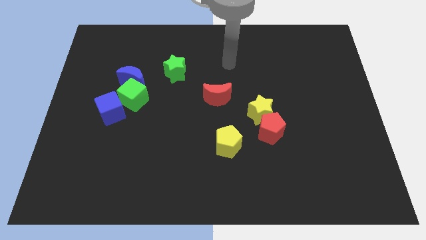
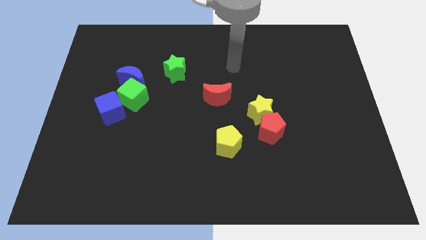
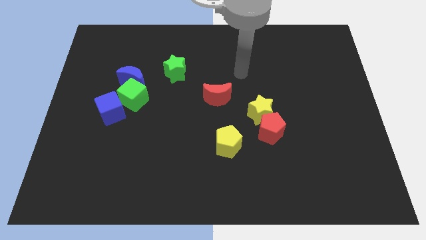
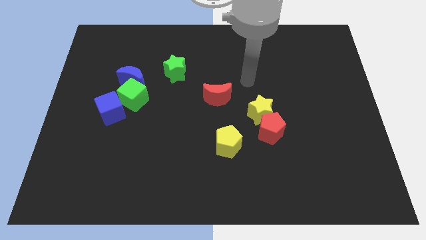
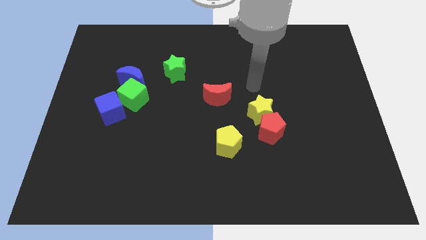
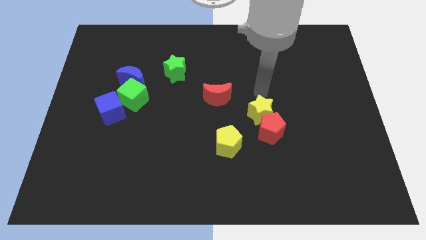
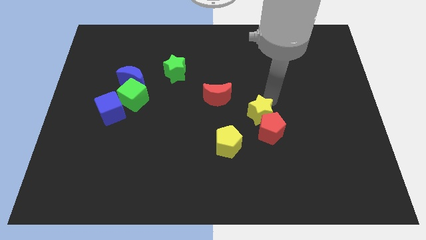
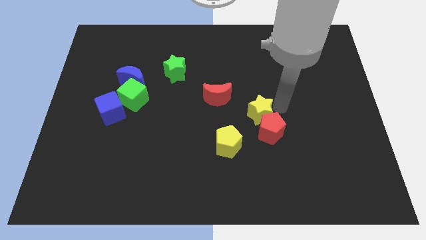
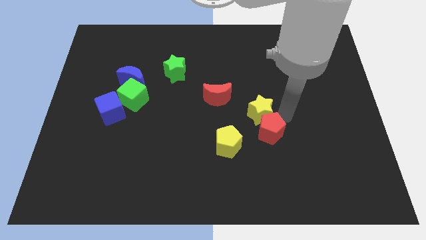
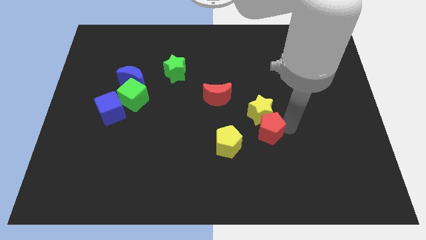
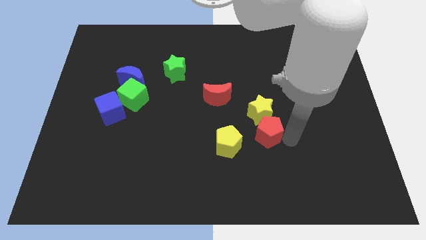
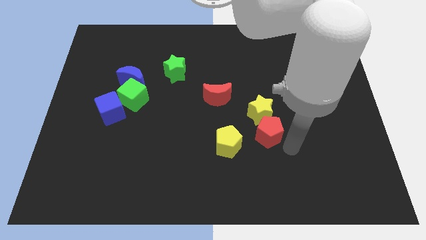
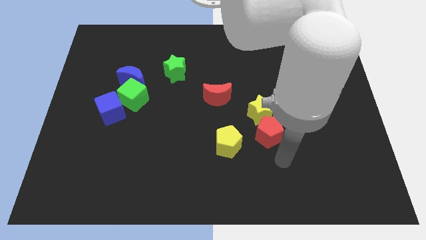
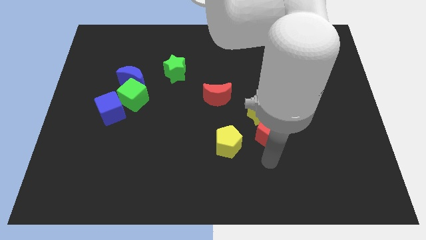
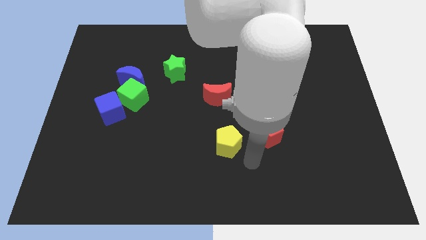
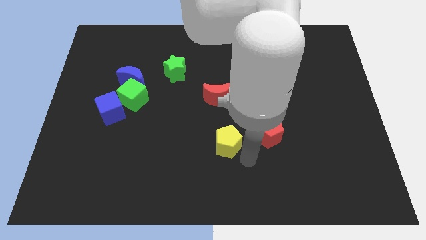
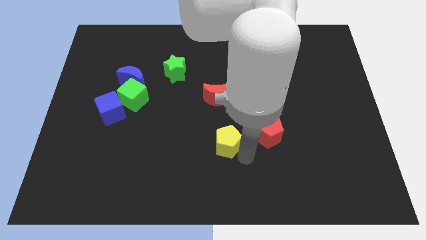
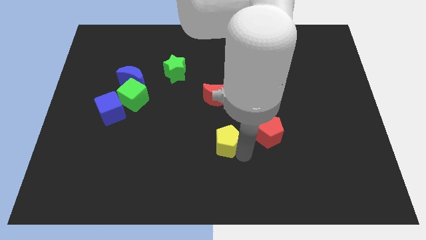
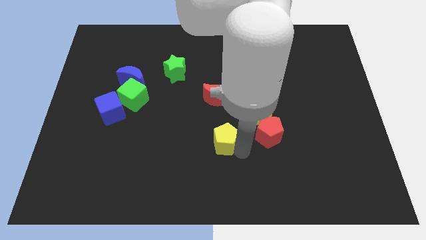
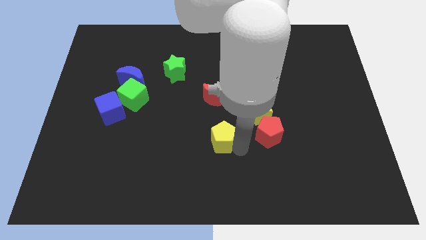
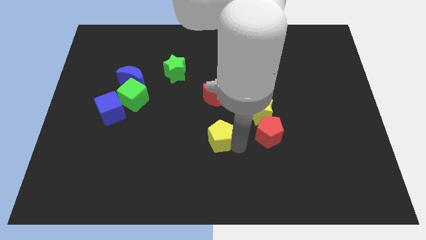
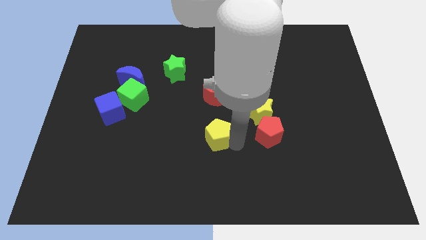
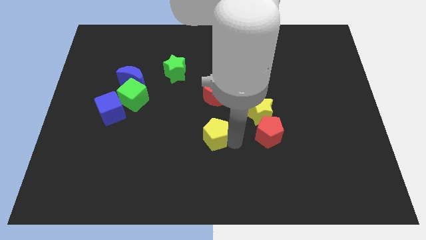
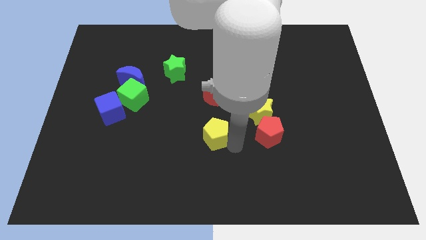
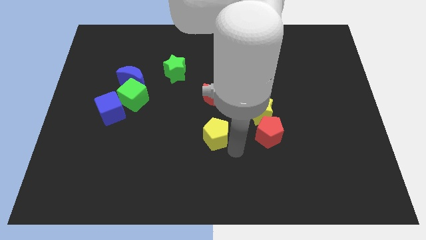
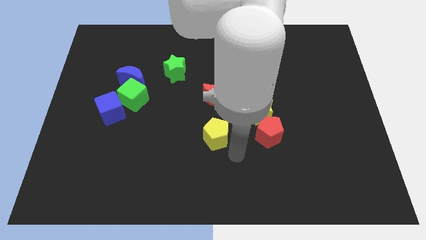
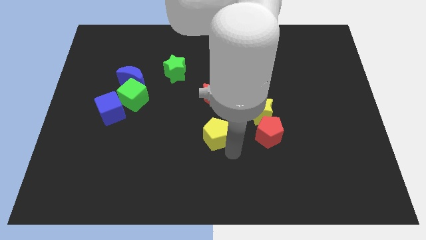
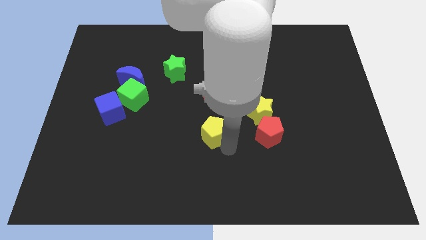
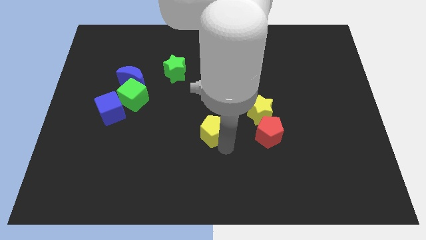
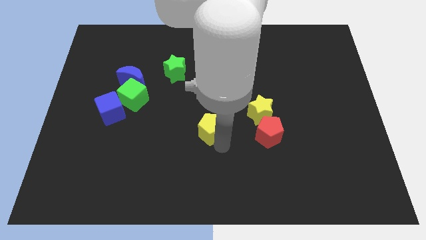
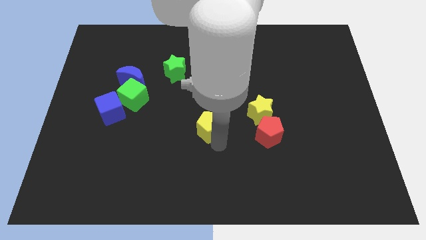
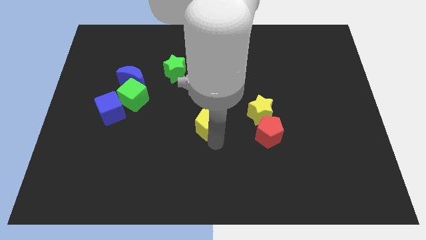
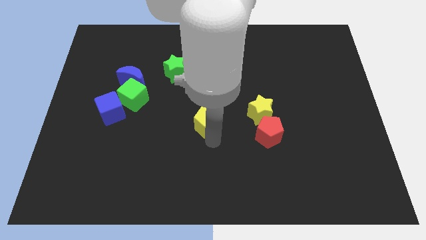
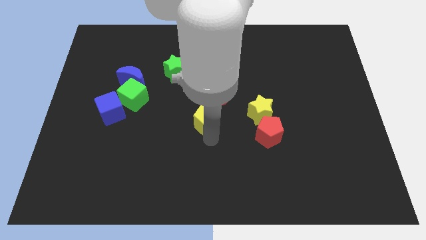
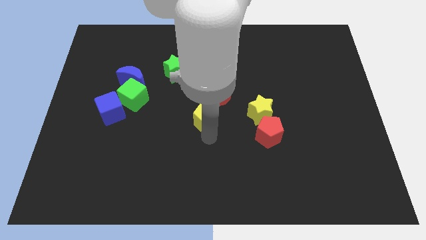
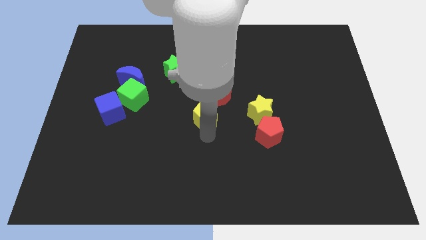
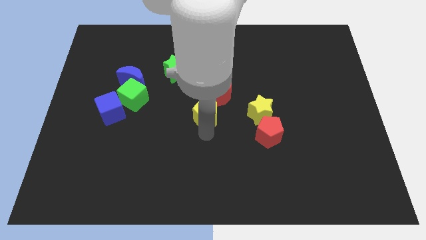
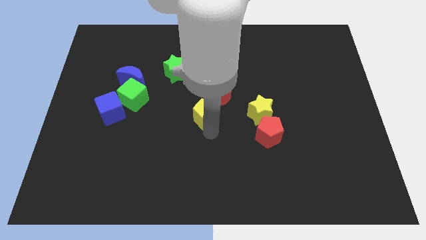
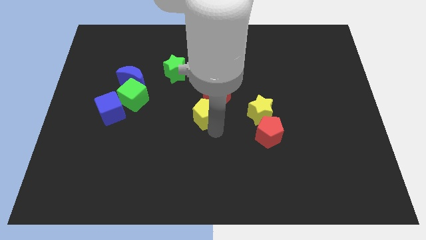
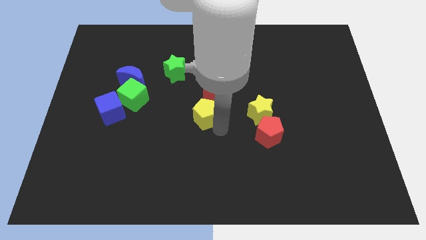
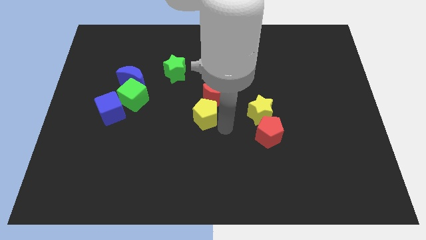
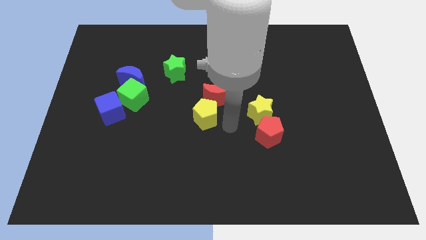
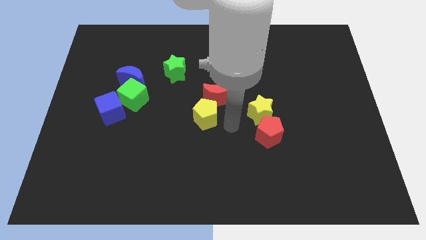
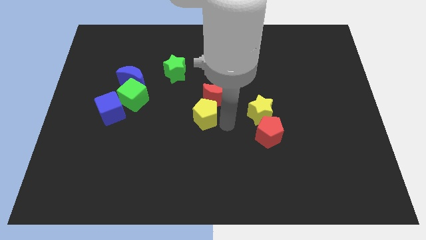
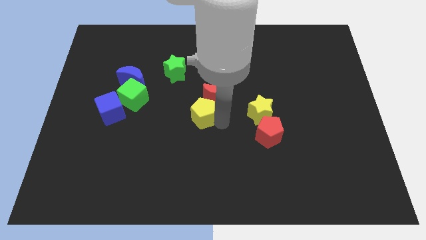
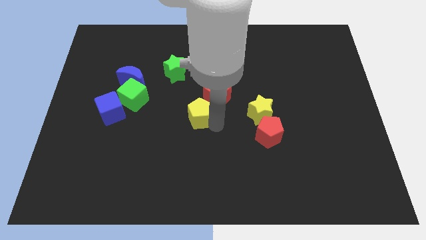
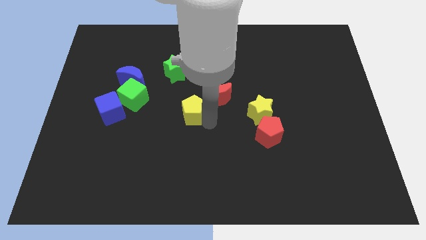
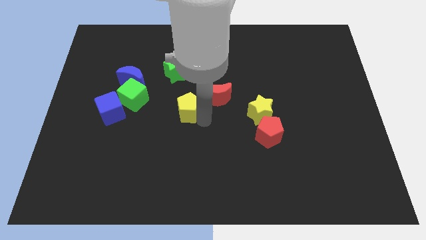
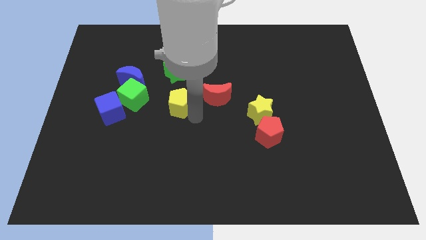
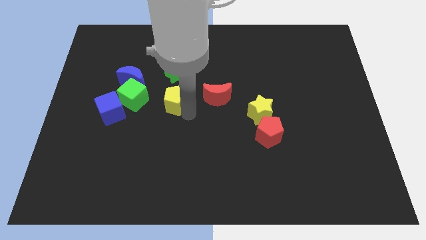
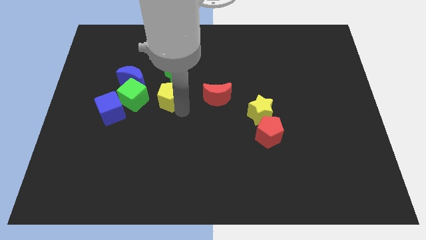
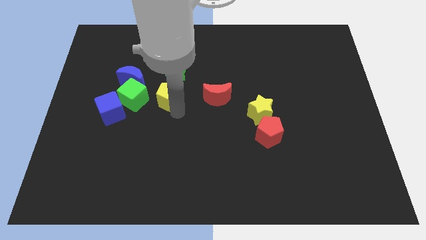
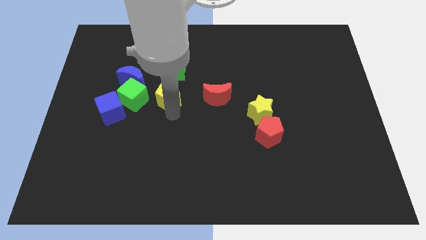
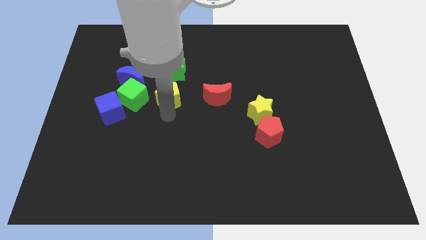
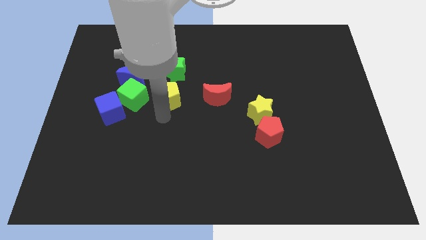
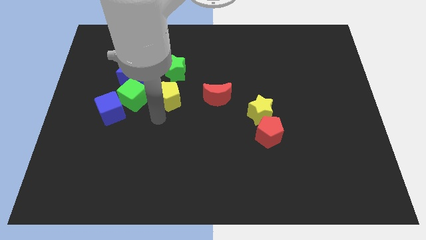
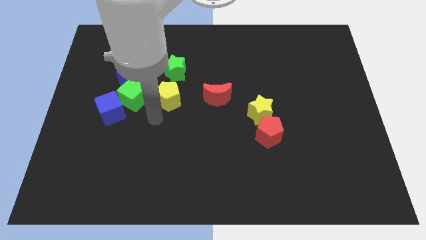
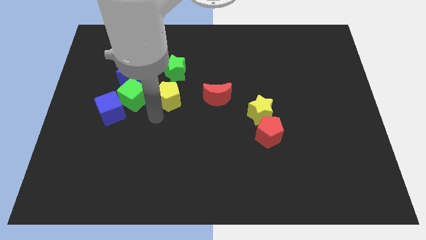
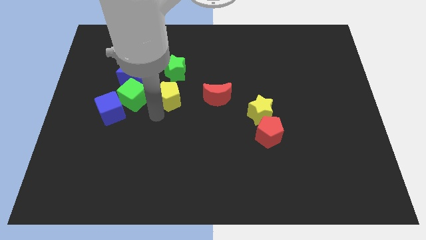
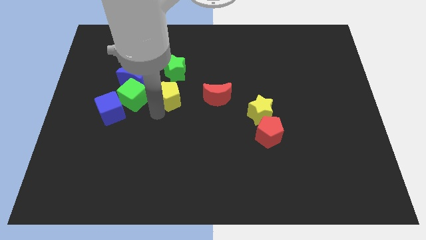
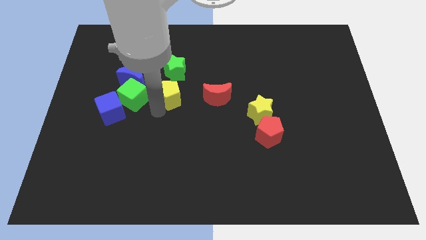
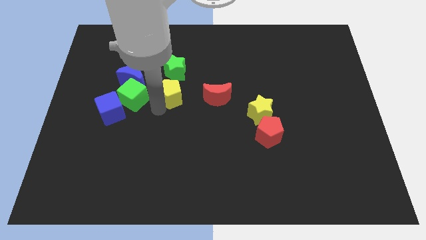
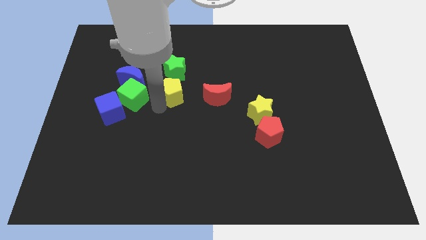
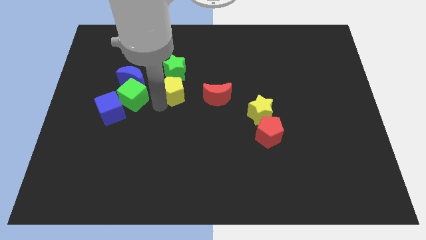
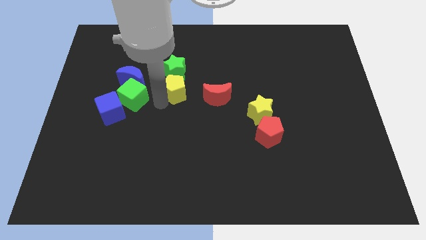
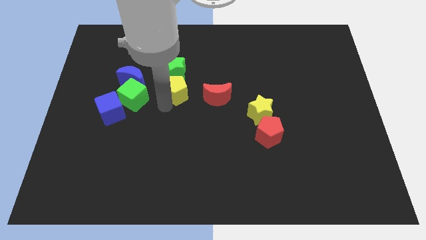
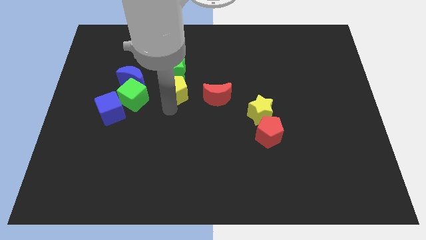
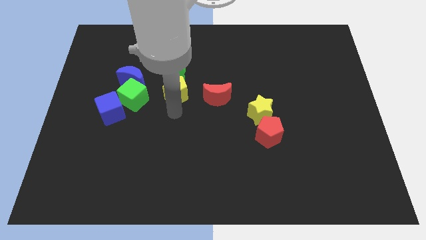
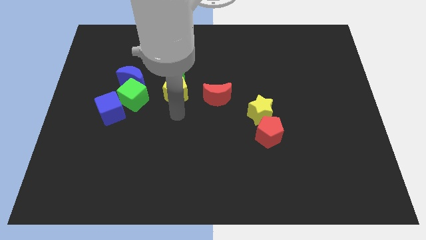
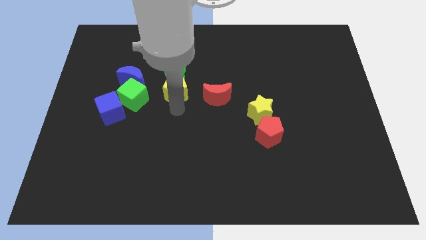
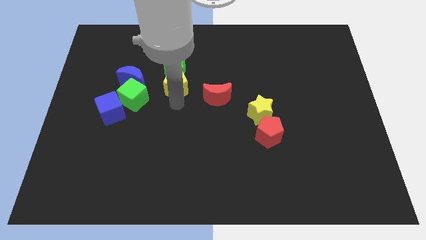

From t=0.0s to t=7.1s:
put the yellow pentagon close to the green star
